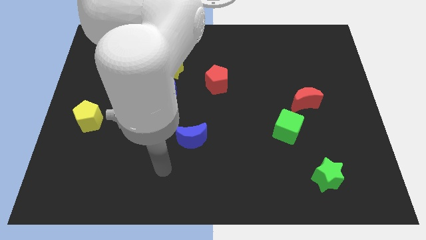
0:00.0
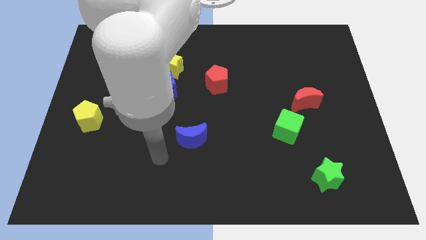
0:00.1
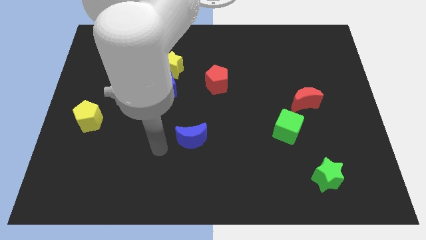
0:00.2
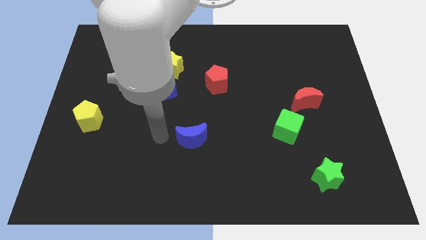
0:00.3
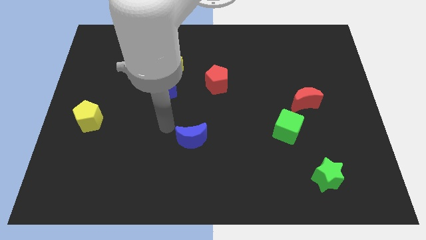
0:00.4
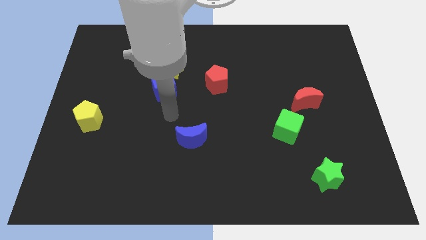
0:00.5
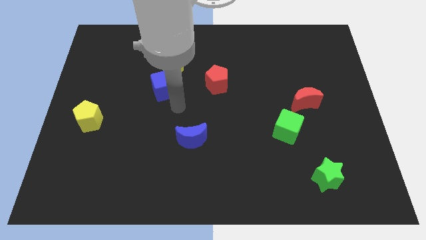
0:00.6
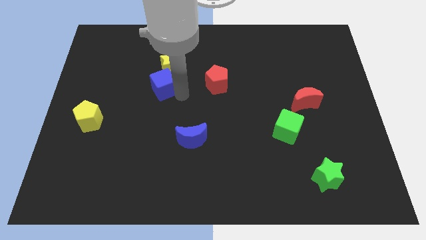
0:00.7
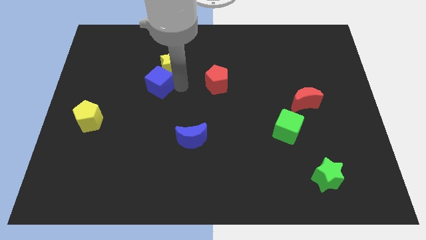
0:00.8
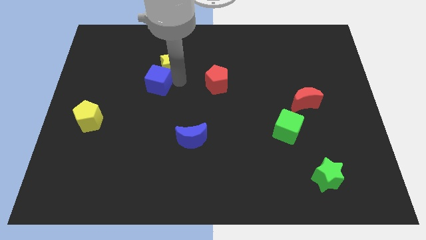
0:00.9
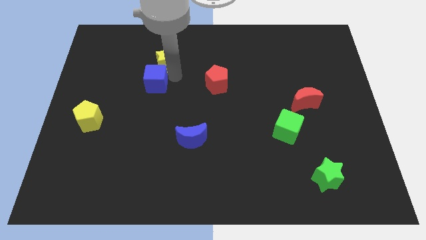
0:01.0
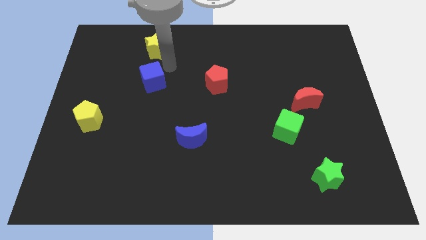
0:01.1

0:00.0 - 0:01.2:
move the blue cube away from the yellow star

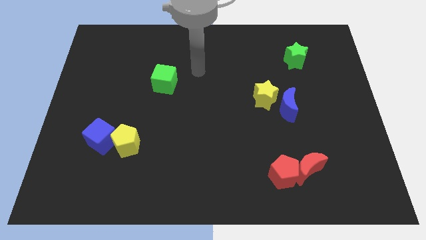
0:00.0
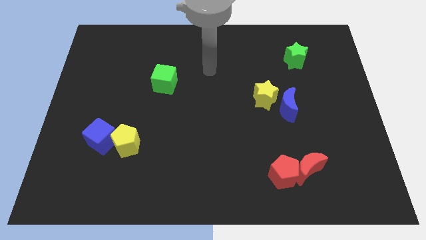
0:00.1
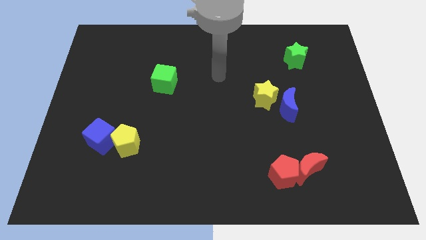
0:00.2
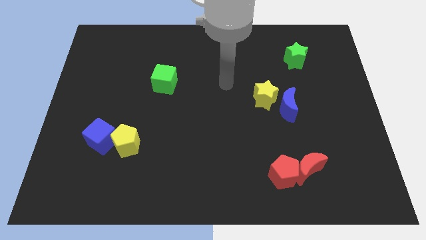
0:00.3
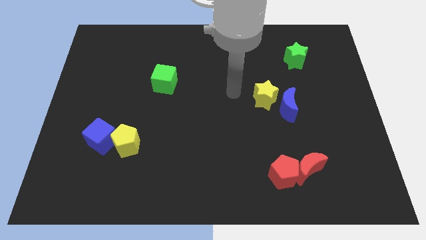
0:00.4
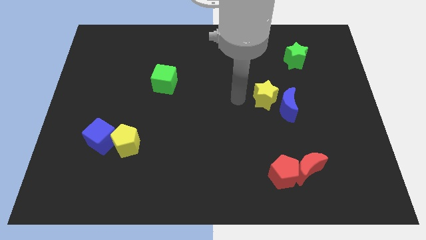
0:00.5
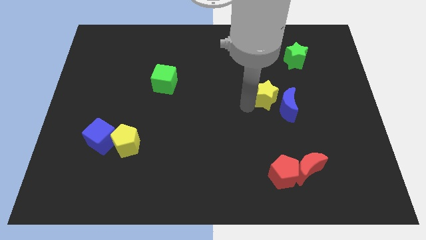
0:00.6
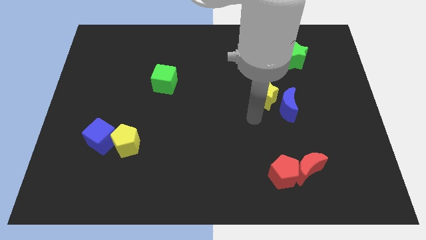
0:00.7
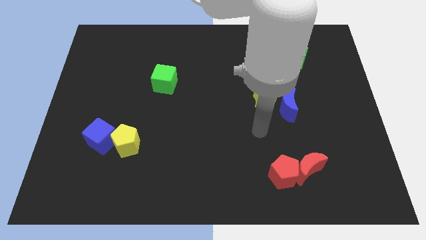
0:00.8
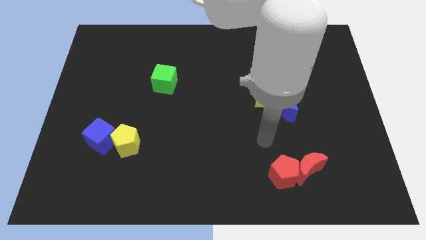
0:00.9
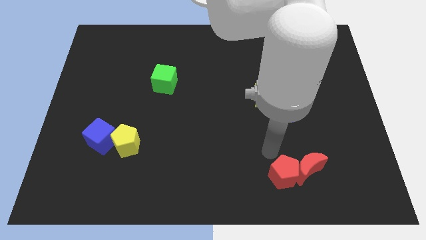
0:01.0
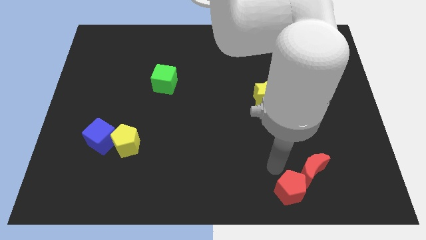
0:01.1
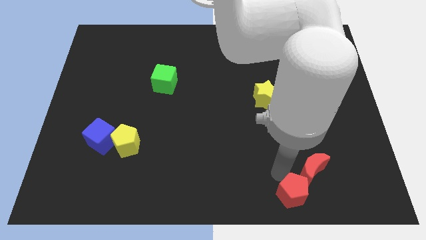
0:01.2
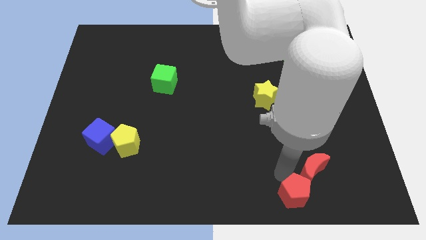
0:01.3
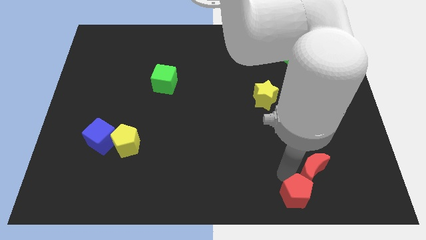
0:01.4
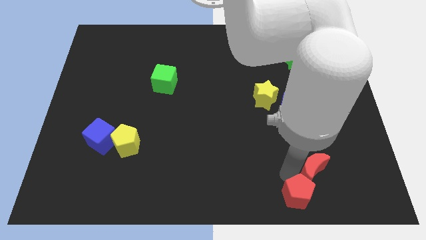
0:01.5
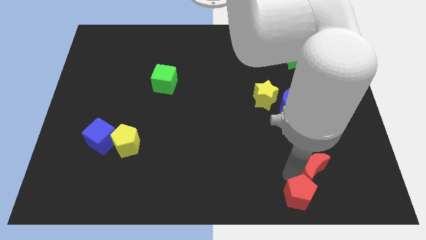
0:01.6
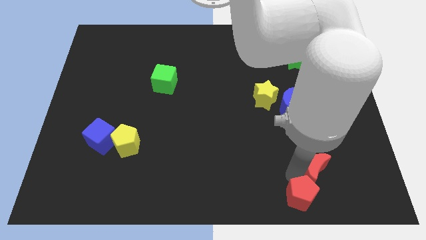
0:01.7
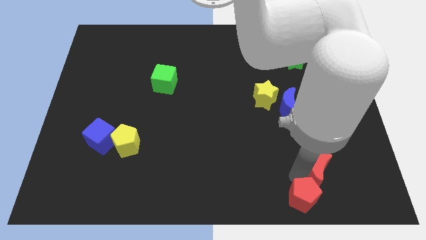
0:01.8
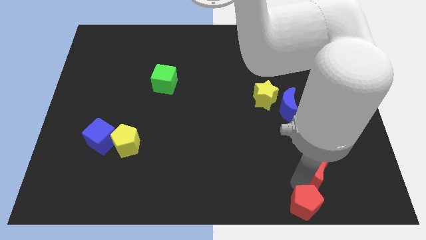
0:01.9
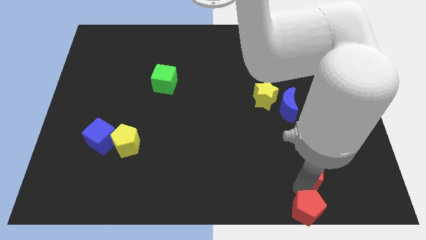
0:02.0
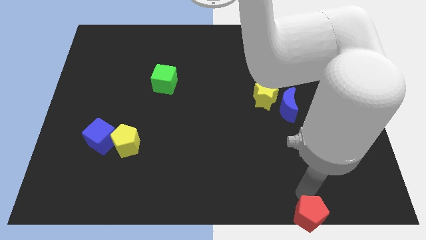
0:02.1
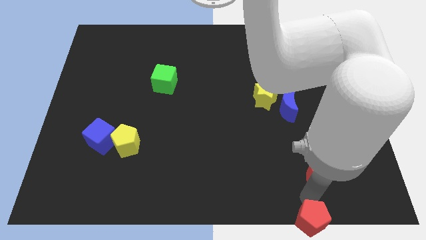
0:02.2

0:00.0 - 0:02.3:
move the red moon away from the red pentagon

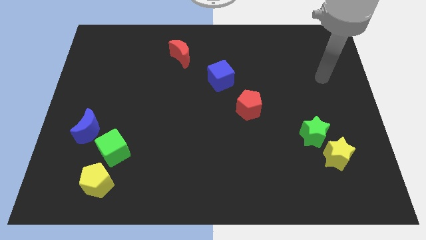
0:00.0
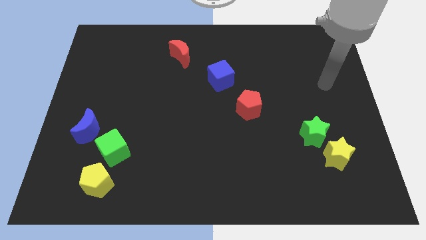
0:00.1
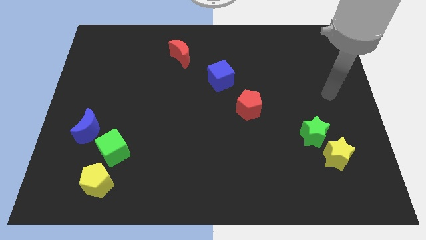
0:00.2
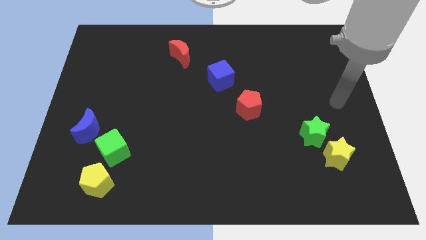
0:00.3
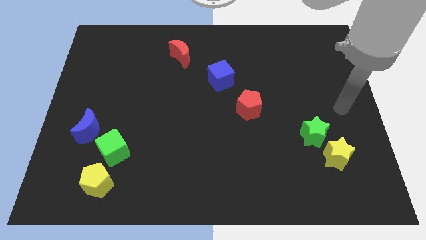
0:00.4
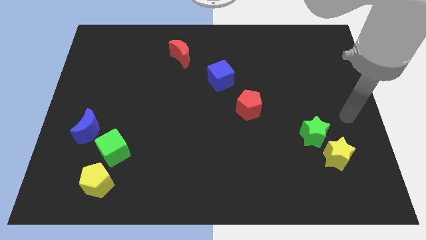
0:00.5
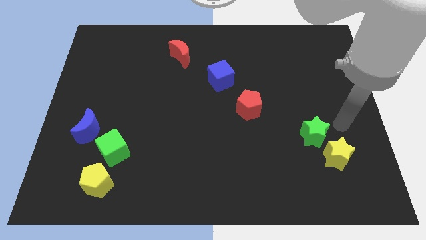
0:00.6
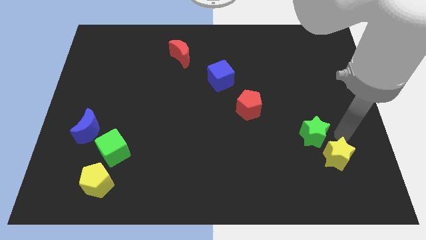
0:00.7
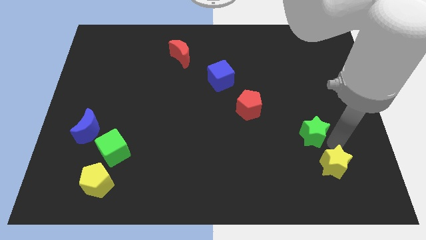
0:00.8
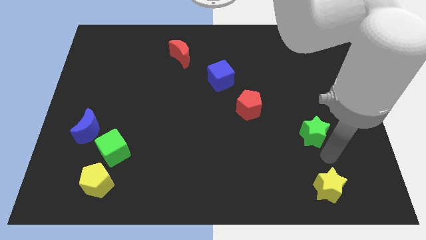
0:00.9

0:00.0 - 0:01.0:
separate the green star from the yellow star

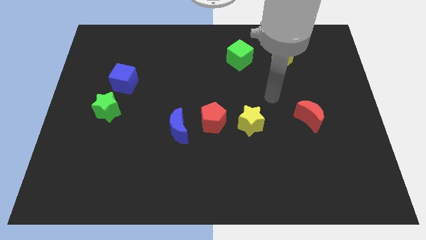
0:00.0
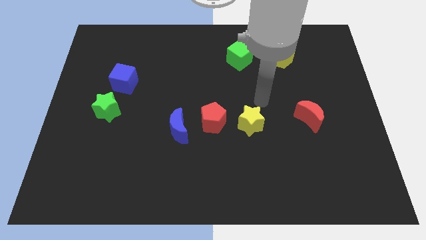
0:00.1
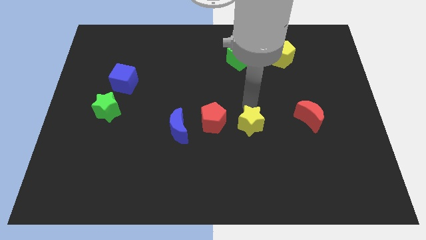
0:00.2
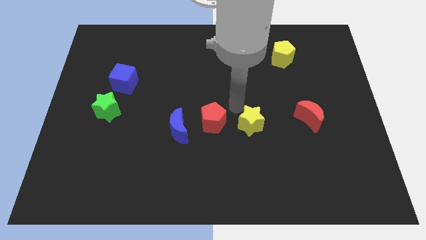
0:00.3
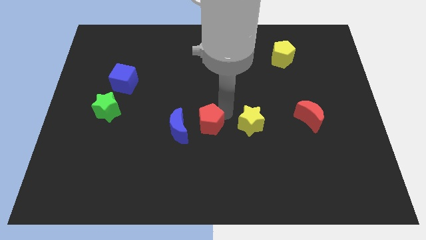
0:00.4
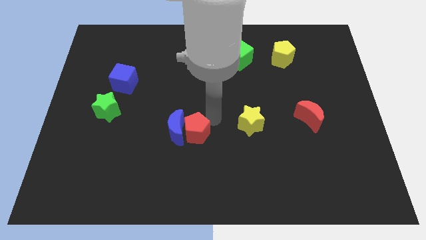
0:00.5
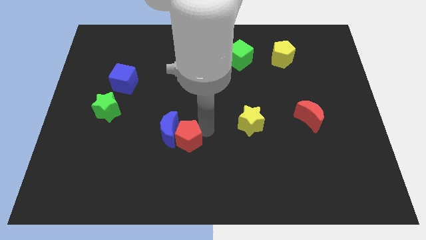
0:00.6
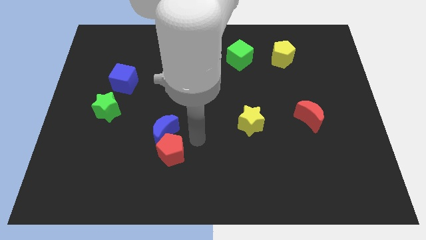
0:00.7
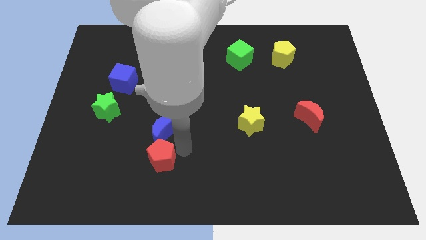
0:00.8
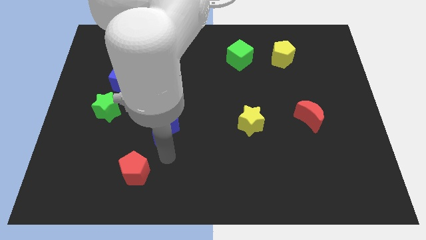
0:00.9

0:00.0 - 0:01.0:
move the blue moon away from the red pentagon

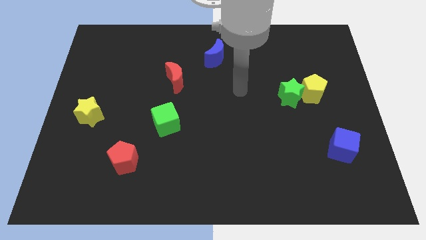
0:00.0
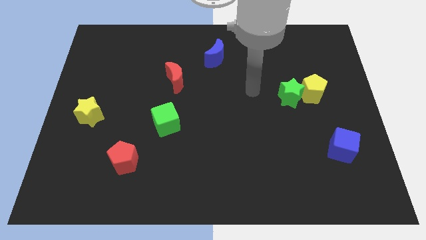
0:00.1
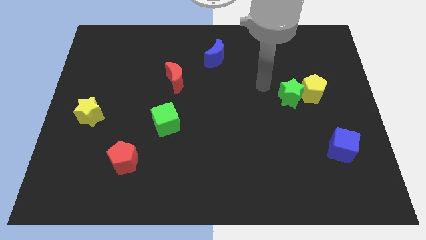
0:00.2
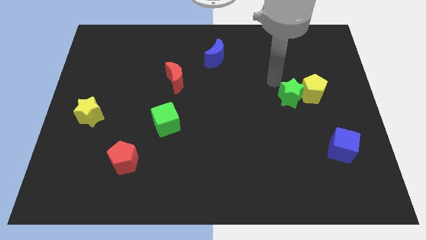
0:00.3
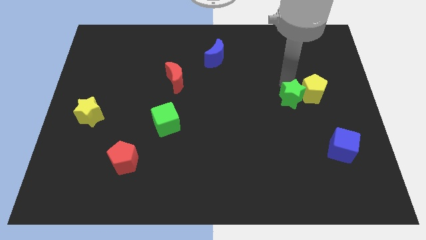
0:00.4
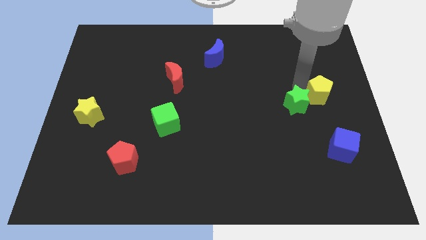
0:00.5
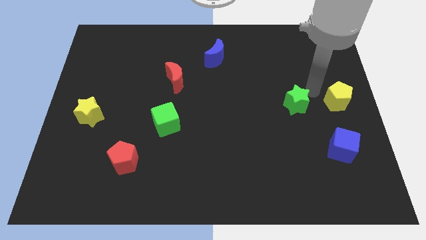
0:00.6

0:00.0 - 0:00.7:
pull the green star apart from the yellow pentagon

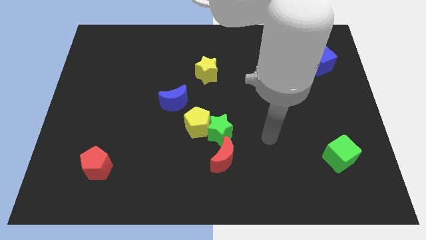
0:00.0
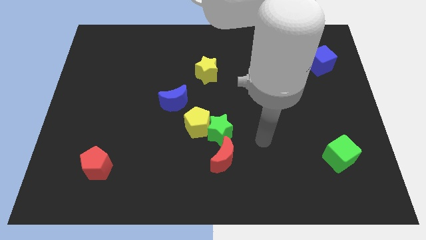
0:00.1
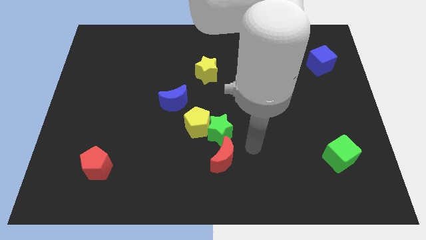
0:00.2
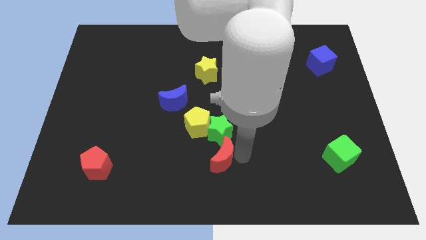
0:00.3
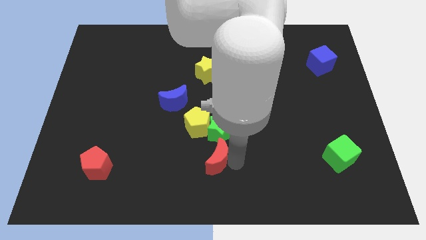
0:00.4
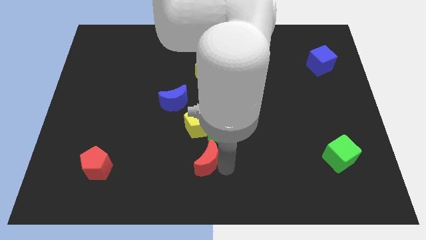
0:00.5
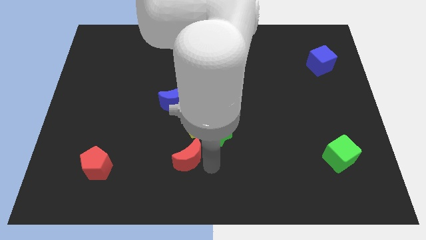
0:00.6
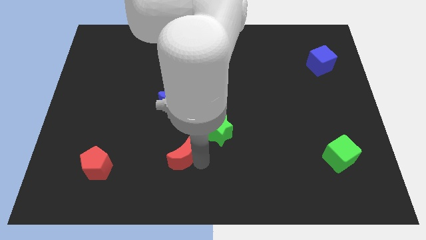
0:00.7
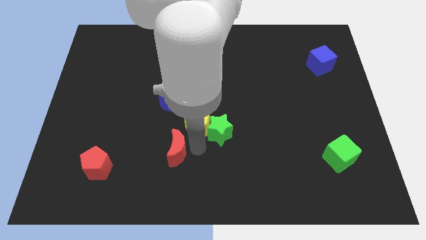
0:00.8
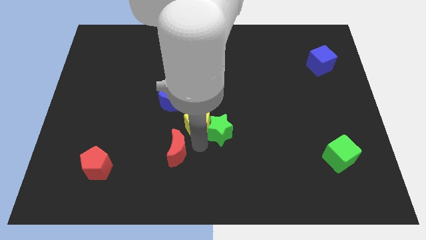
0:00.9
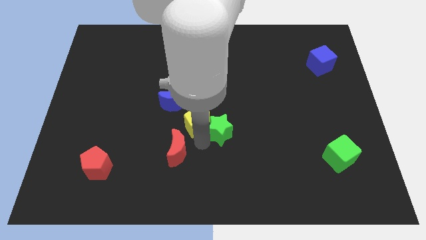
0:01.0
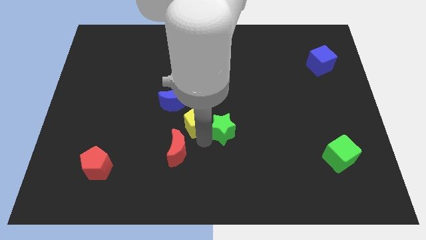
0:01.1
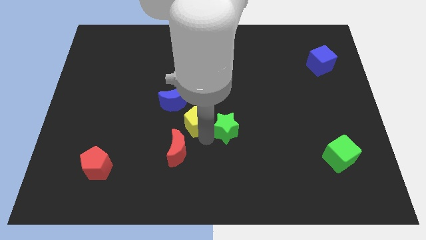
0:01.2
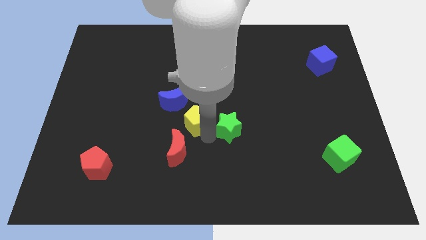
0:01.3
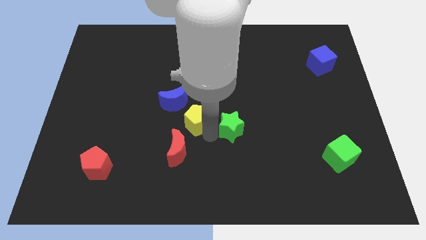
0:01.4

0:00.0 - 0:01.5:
move the green star away from the yellow pentagon and red moon

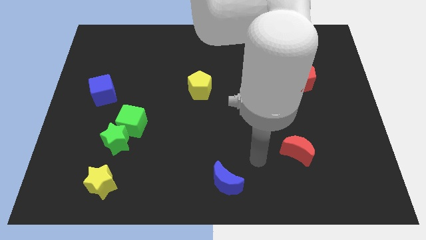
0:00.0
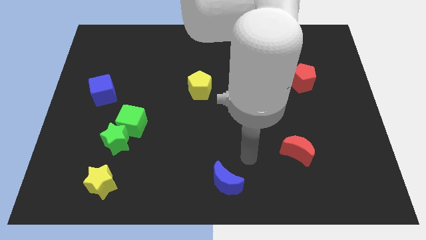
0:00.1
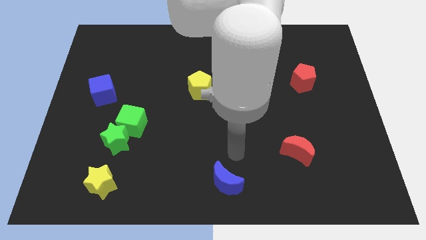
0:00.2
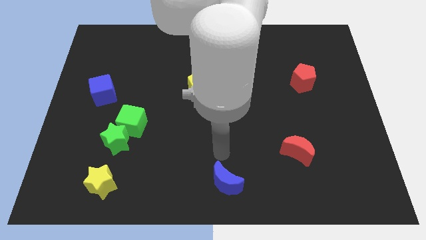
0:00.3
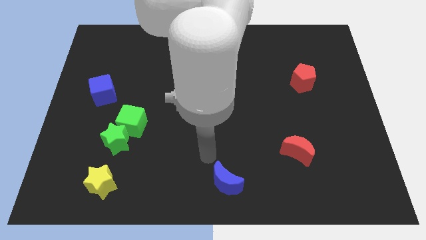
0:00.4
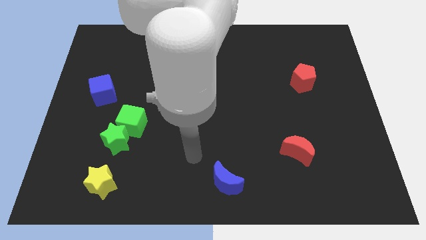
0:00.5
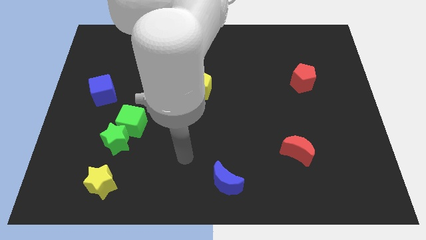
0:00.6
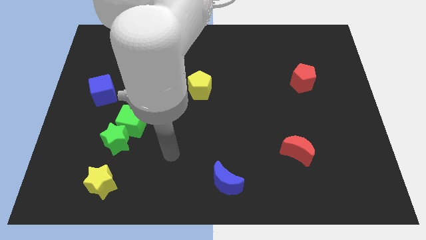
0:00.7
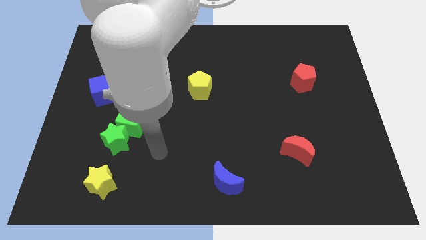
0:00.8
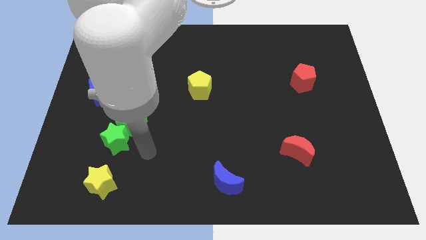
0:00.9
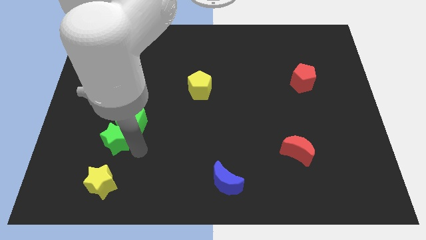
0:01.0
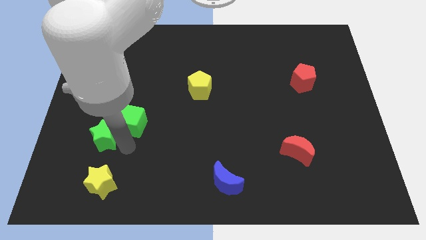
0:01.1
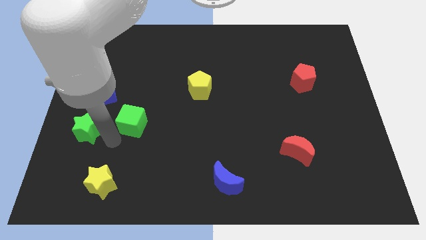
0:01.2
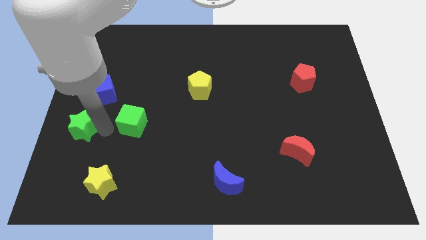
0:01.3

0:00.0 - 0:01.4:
move the green cube away from the green star

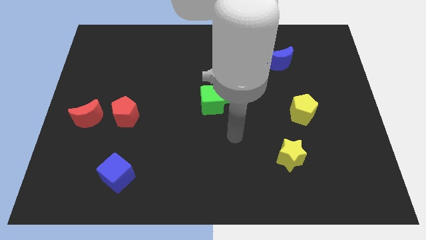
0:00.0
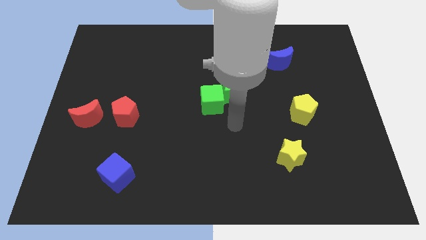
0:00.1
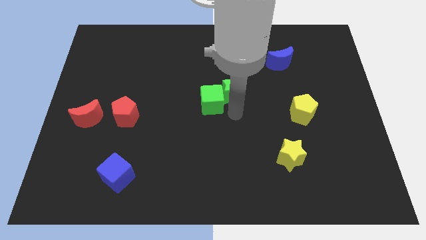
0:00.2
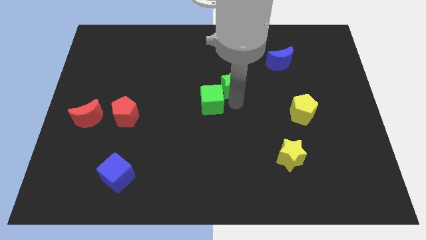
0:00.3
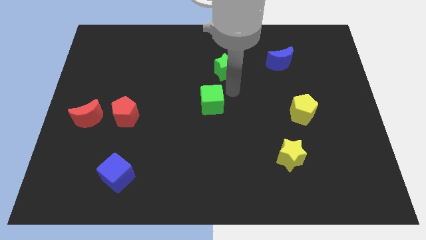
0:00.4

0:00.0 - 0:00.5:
pull the green cube apart from the green star
